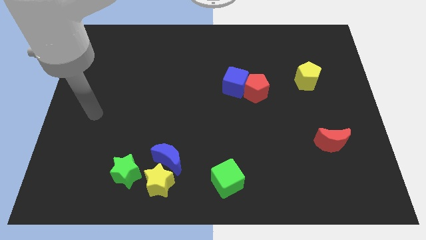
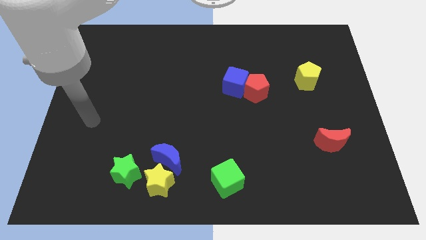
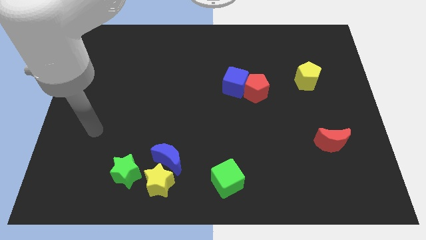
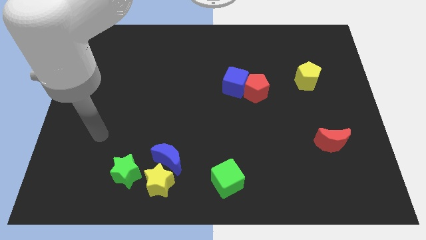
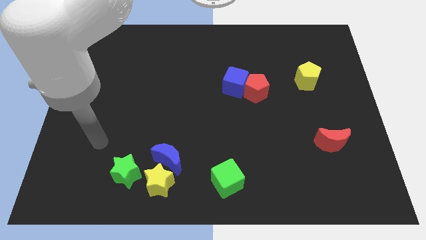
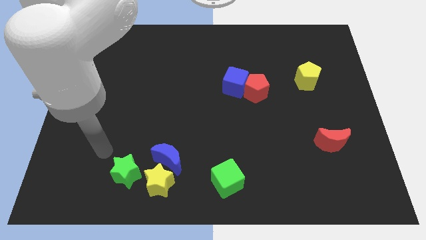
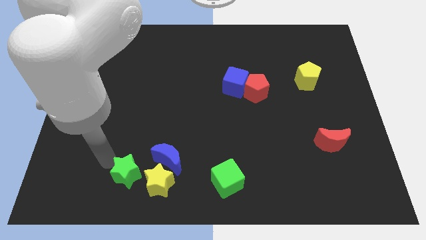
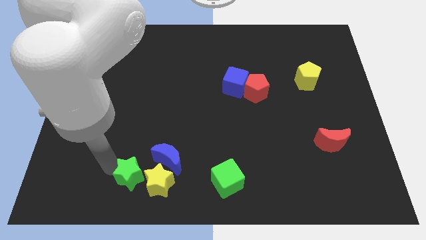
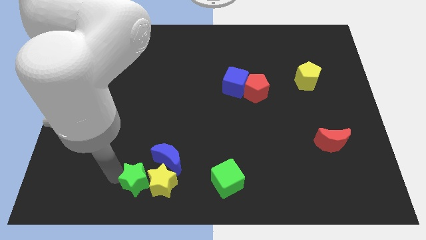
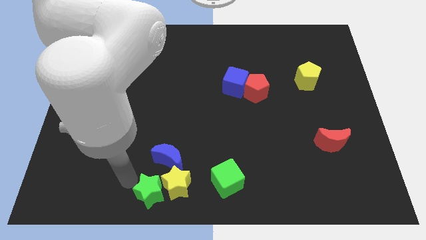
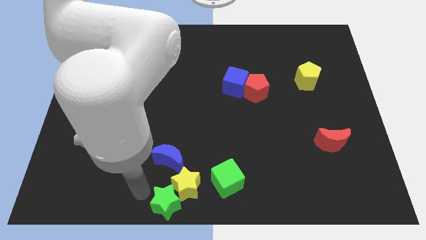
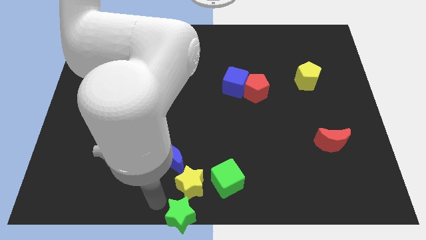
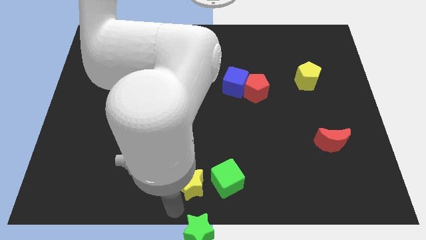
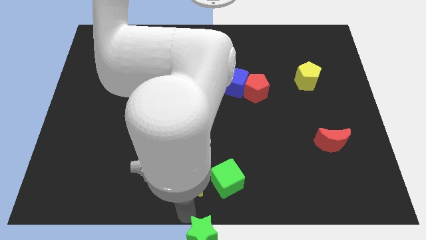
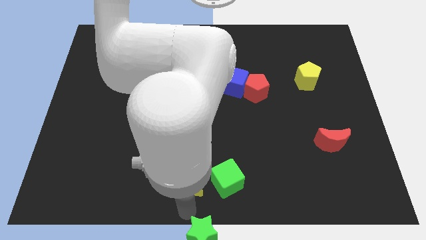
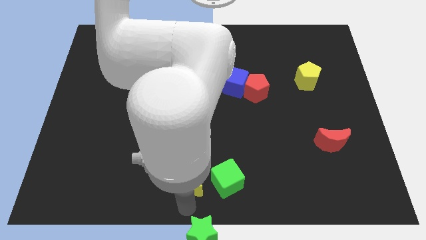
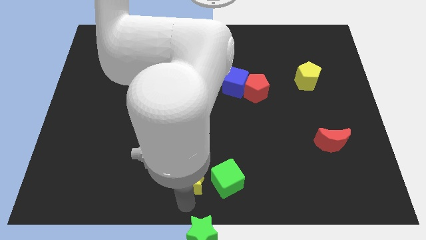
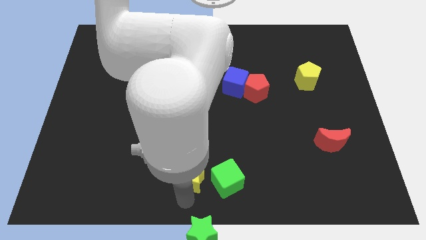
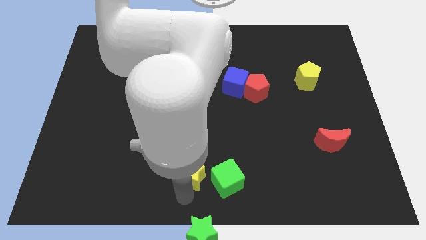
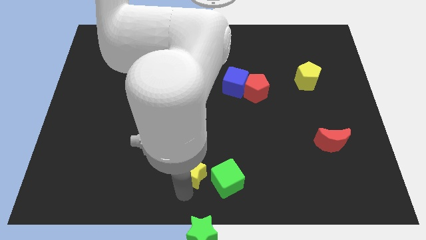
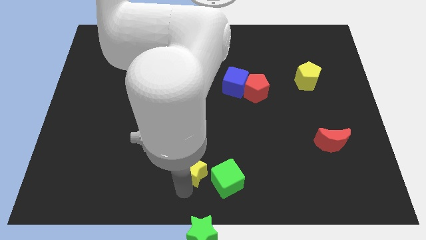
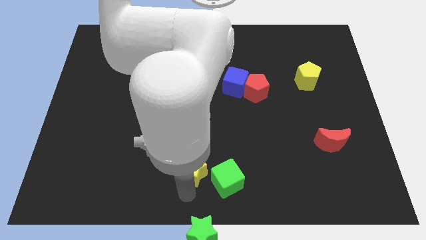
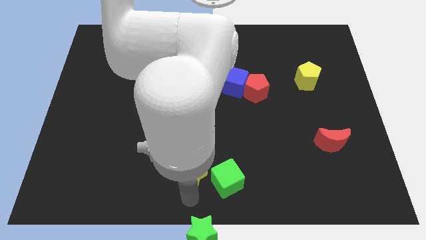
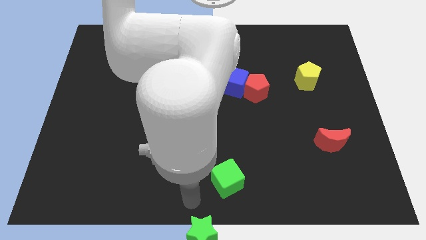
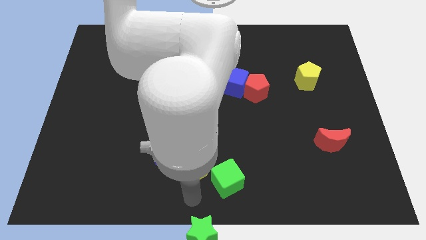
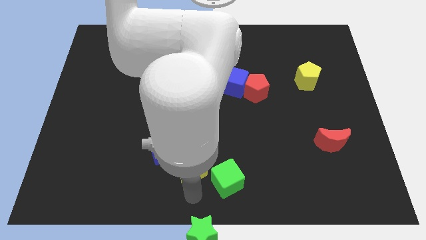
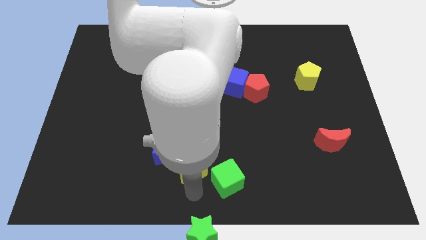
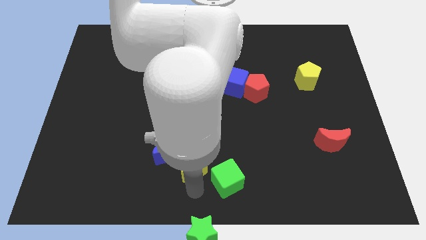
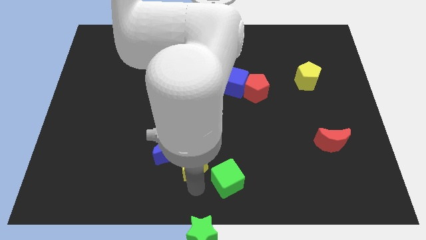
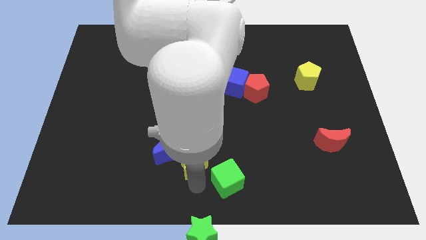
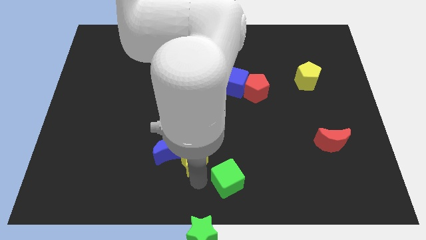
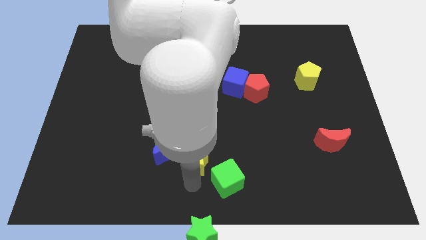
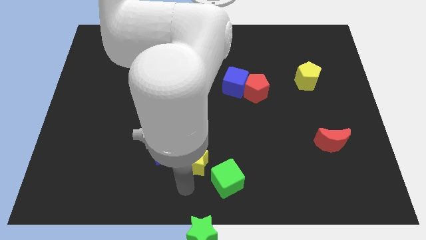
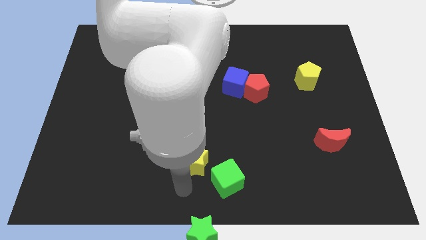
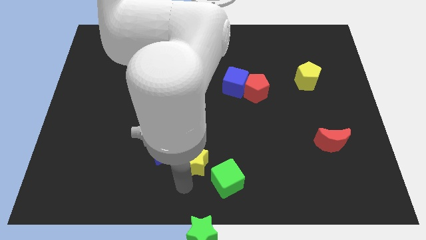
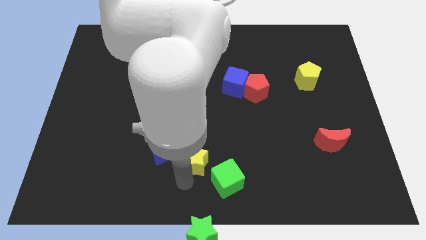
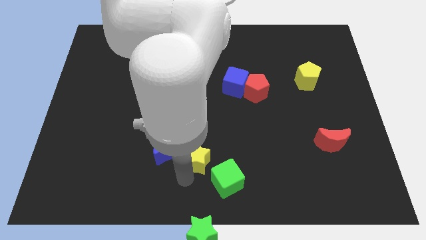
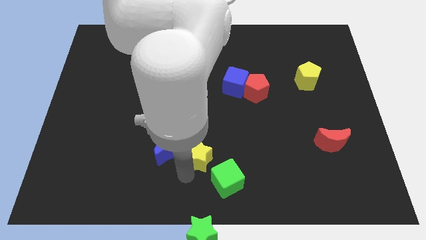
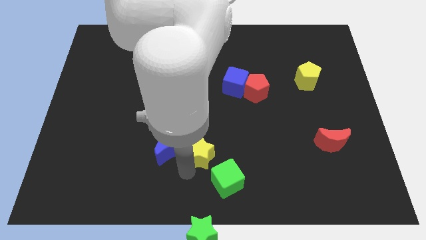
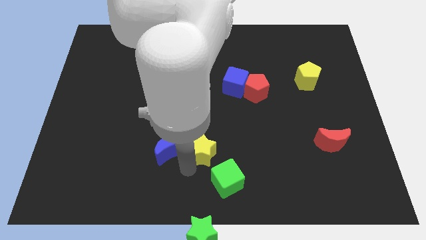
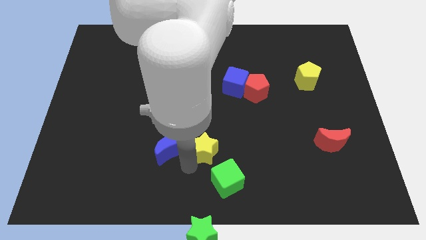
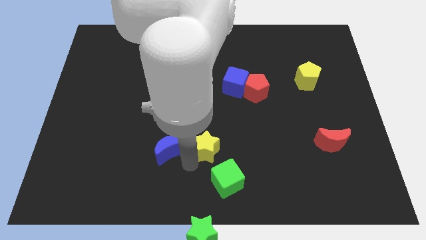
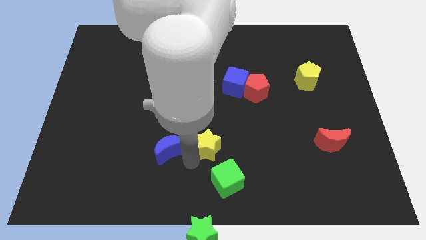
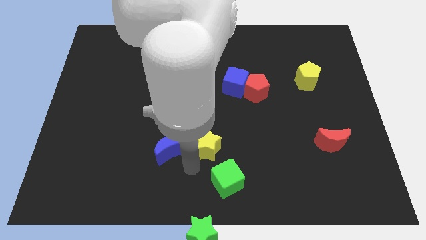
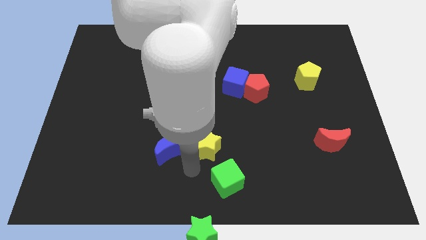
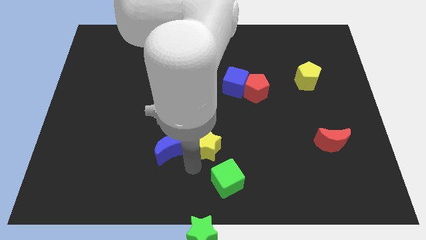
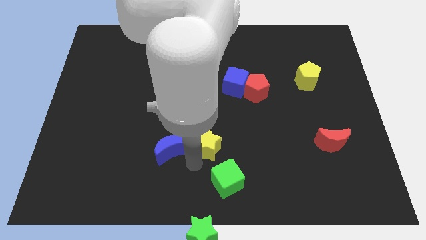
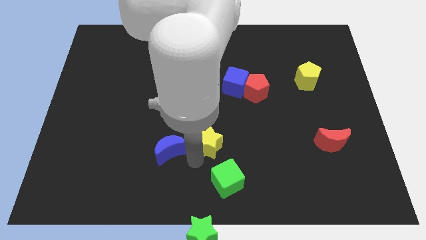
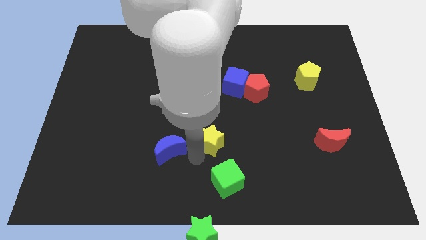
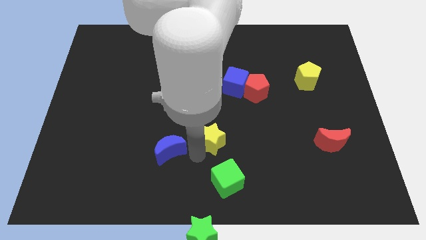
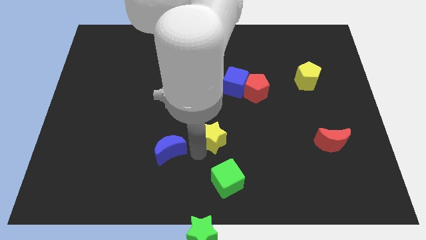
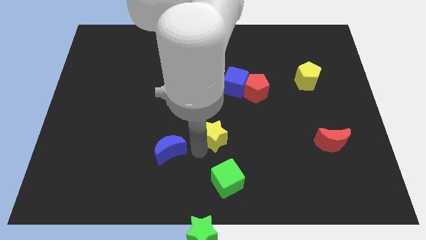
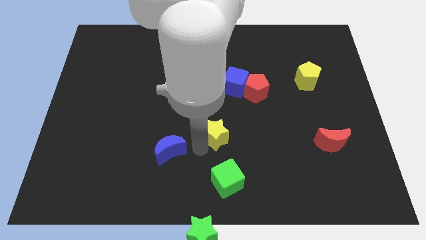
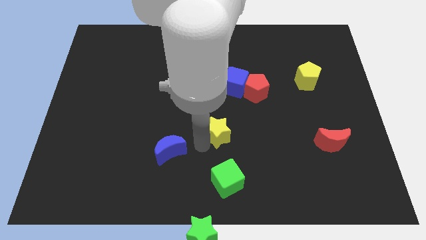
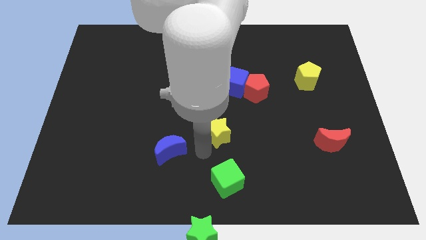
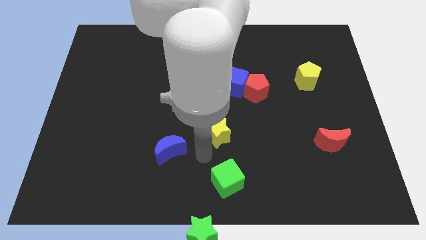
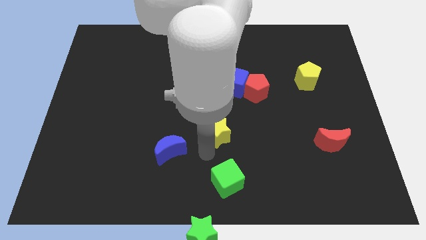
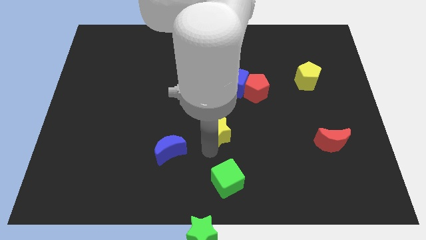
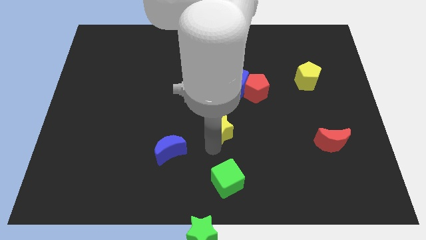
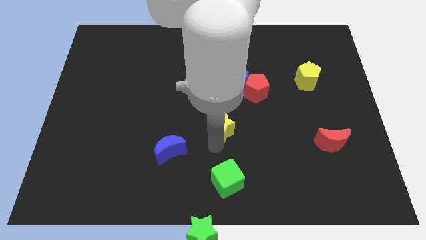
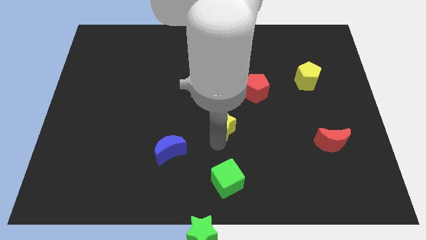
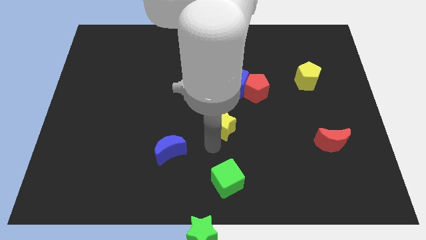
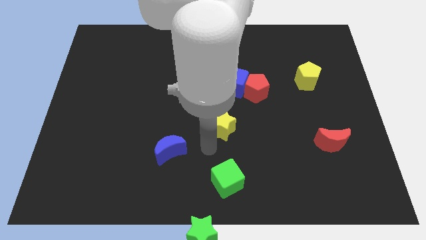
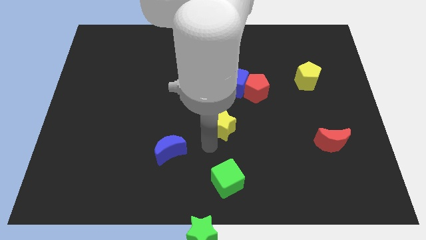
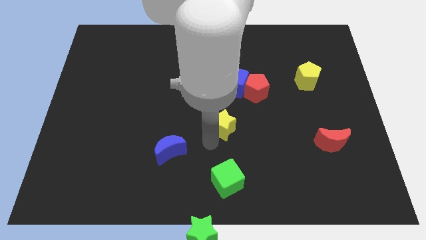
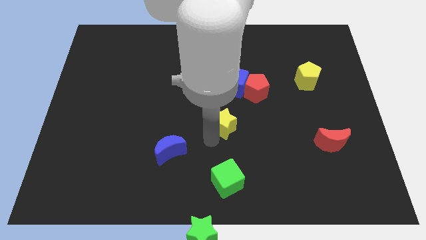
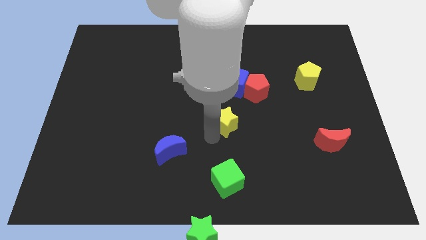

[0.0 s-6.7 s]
push the yellow star diagonally down and to the left of the red pentagon

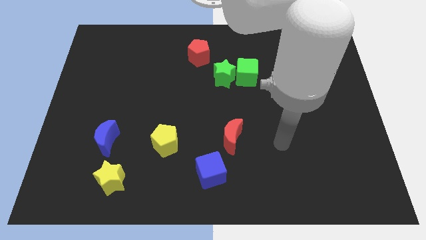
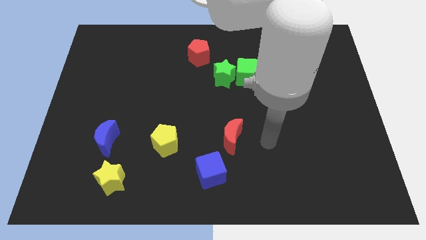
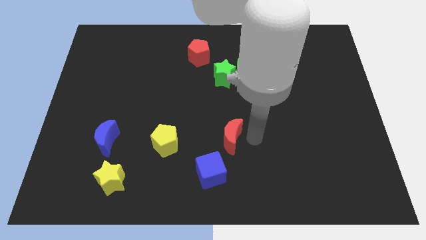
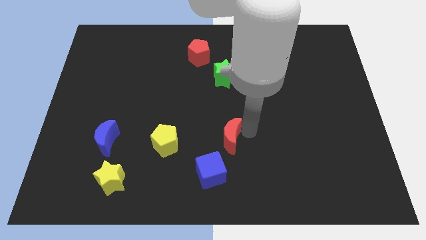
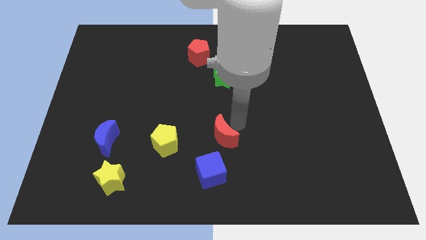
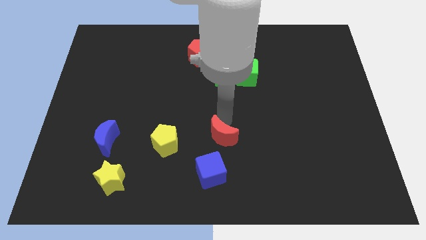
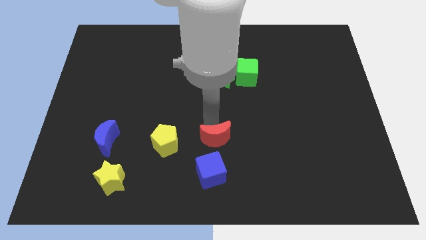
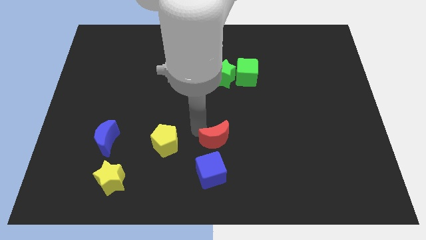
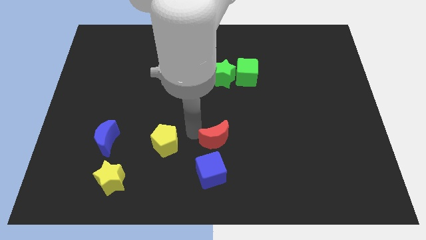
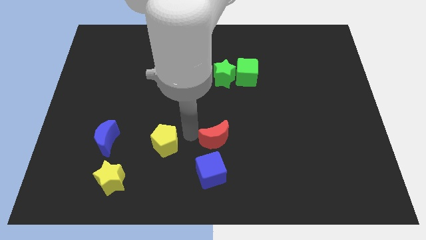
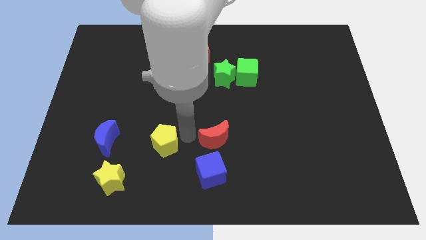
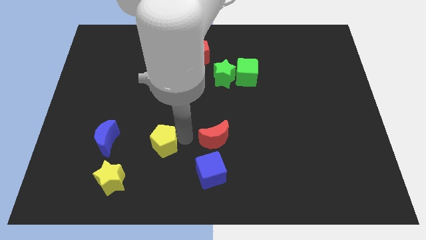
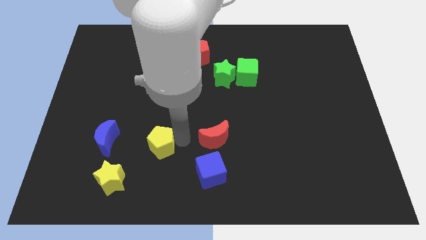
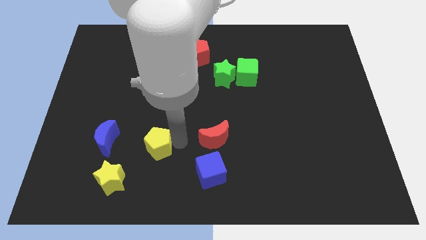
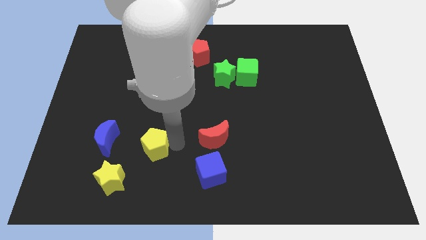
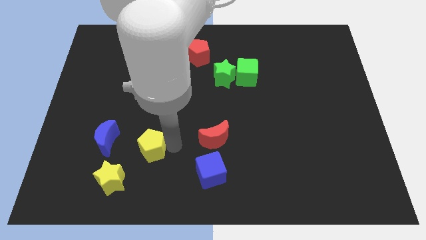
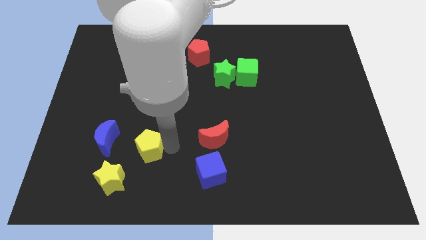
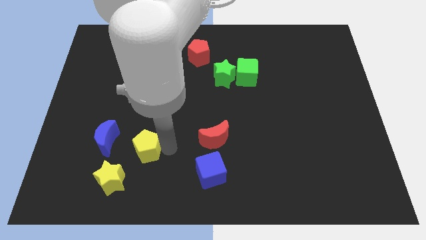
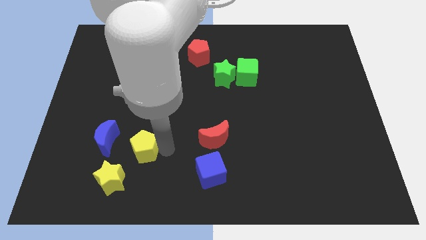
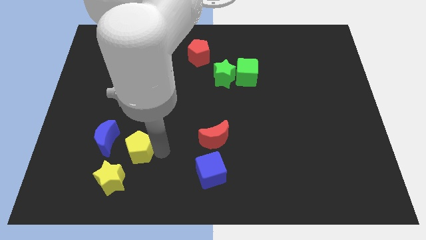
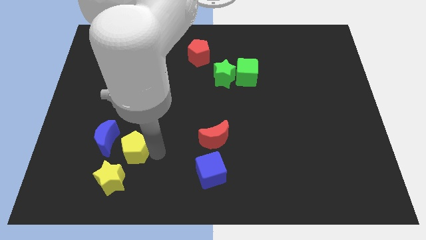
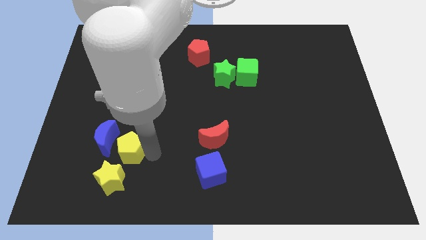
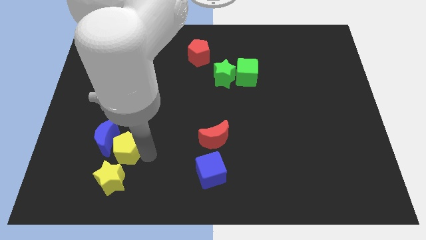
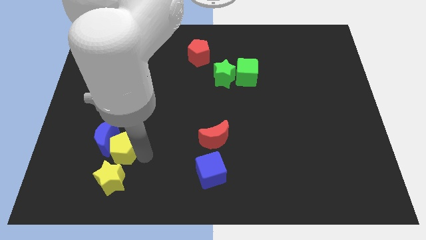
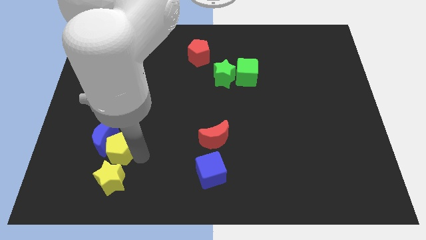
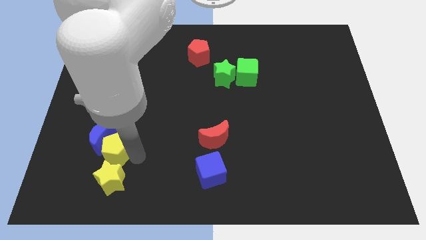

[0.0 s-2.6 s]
slide the yellow pentagon to the top left side of the yellow star
